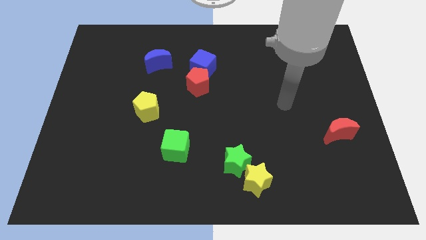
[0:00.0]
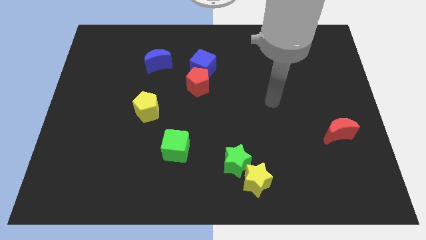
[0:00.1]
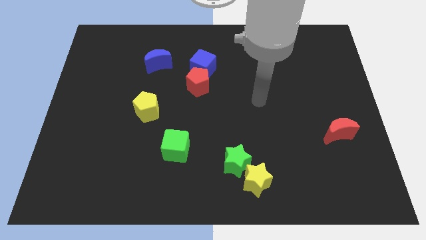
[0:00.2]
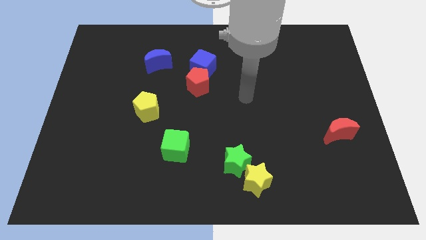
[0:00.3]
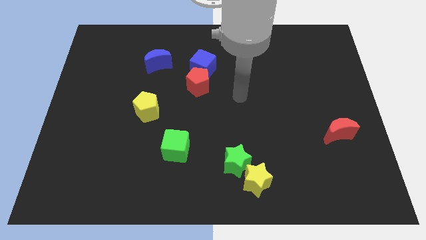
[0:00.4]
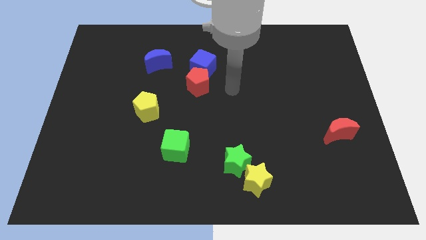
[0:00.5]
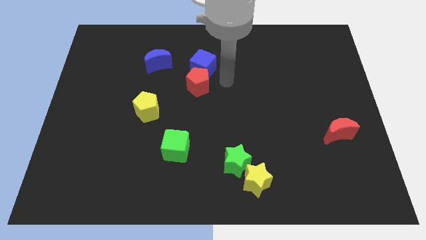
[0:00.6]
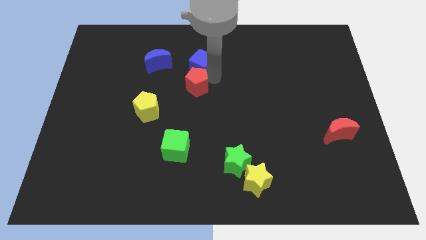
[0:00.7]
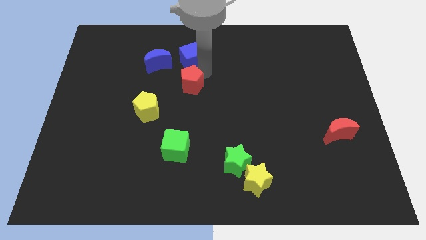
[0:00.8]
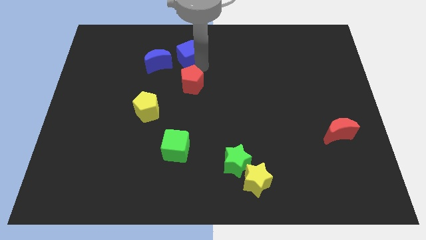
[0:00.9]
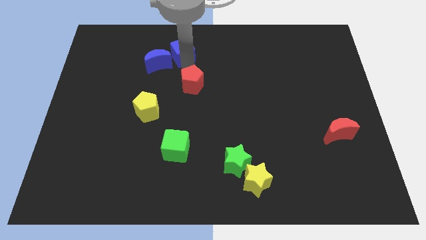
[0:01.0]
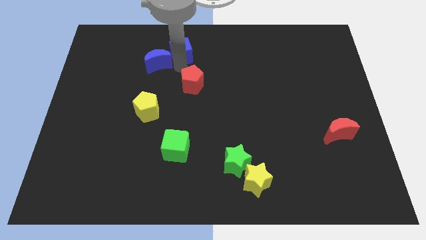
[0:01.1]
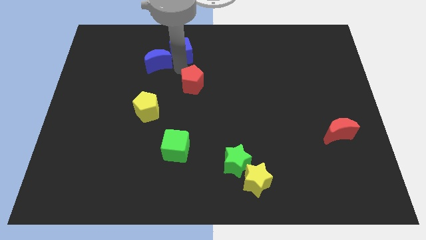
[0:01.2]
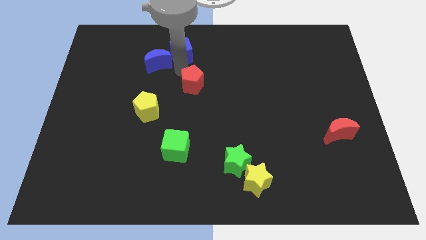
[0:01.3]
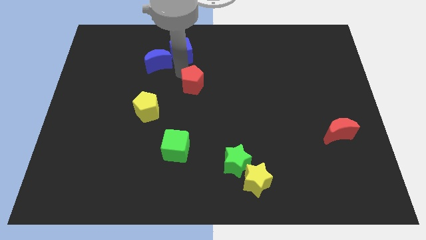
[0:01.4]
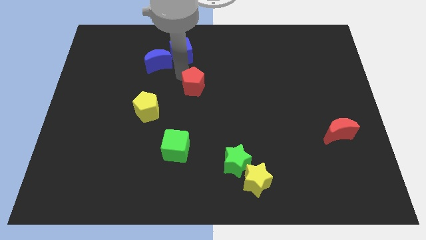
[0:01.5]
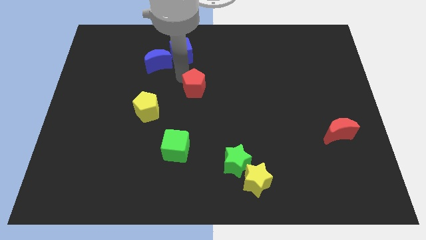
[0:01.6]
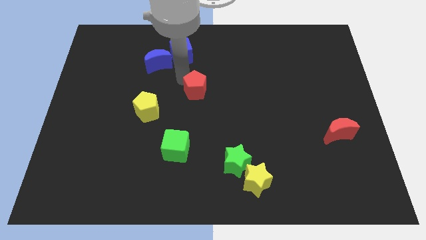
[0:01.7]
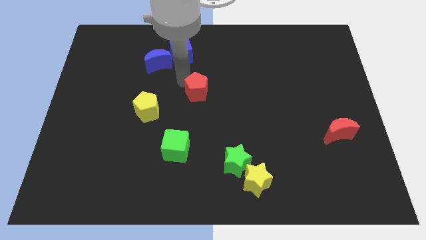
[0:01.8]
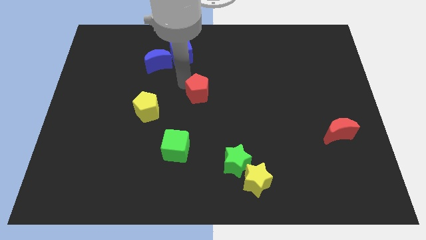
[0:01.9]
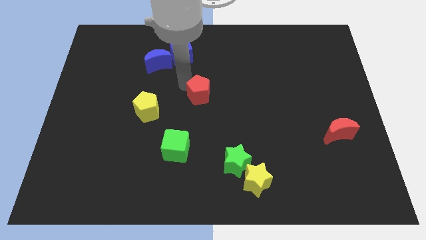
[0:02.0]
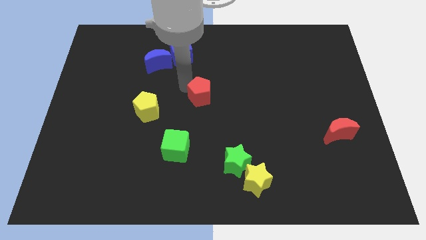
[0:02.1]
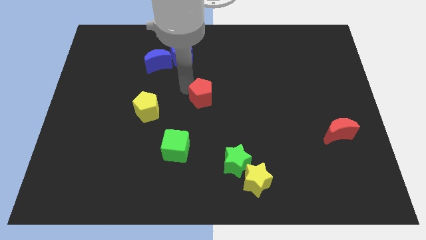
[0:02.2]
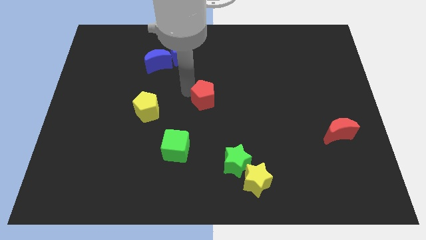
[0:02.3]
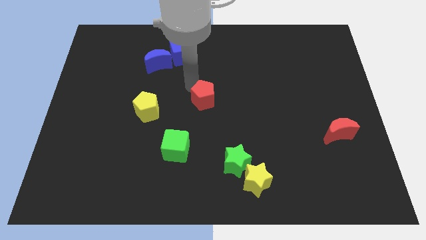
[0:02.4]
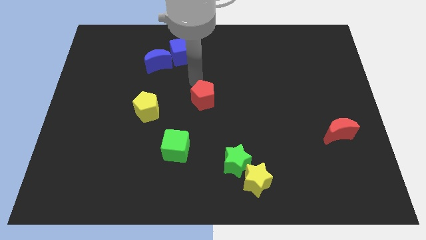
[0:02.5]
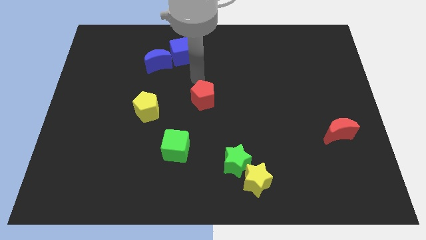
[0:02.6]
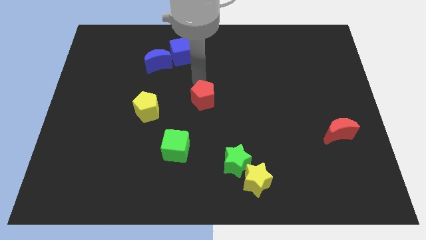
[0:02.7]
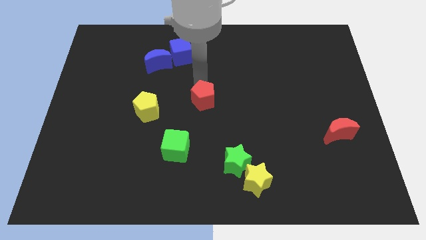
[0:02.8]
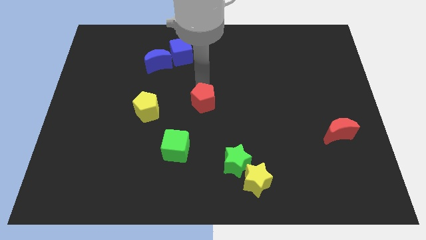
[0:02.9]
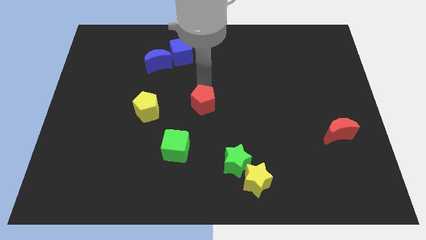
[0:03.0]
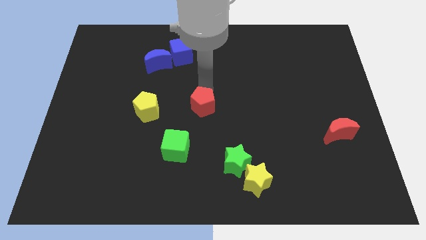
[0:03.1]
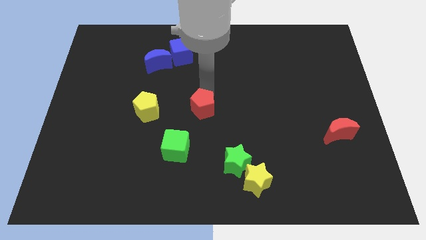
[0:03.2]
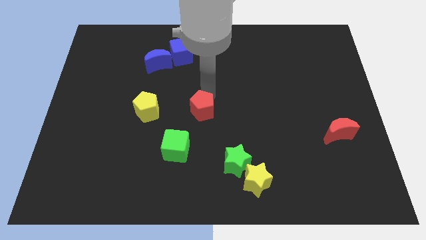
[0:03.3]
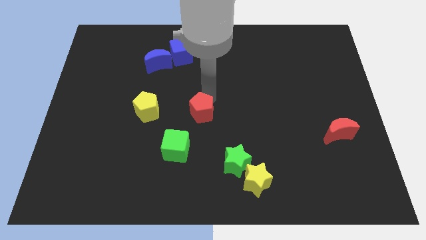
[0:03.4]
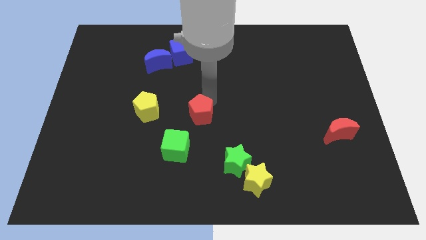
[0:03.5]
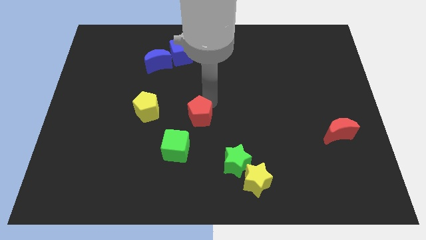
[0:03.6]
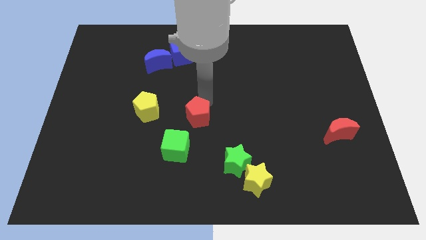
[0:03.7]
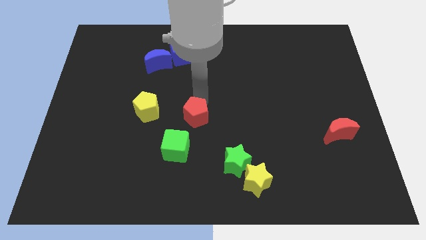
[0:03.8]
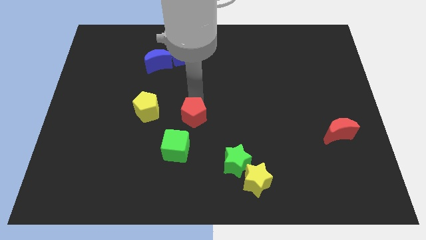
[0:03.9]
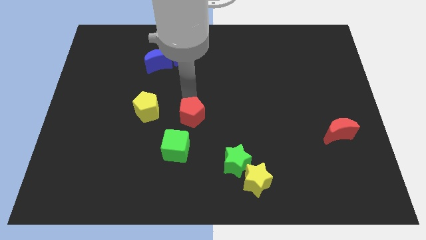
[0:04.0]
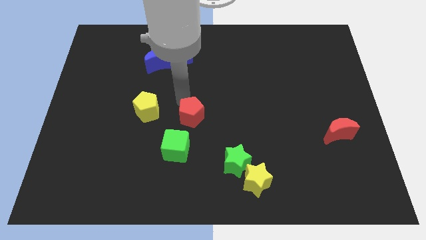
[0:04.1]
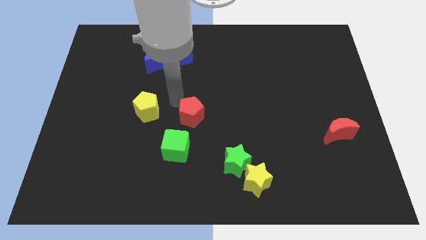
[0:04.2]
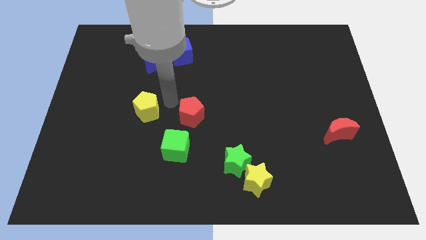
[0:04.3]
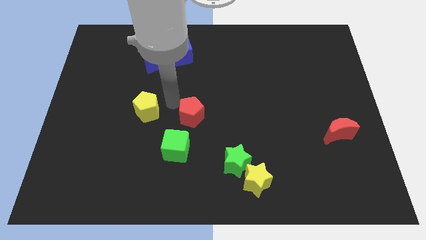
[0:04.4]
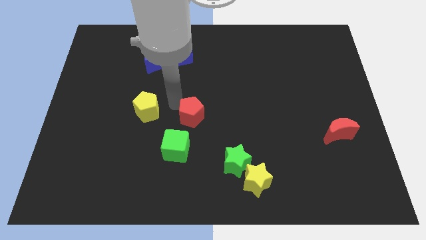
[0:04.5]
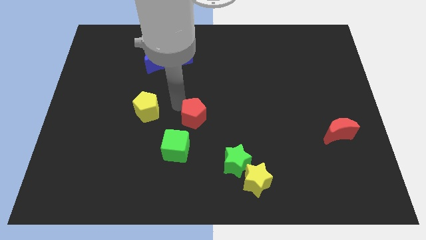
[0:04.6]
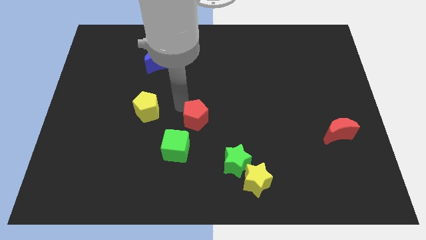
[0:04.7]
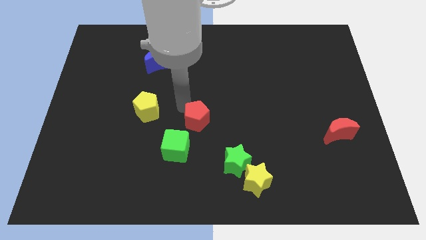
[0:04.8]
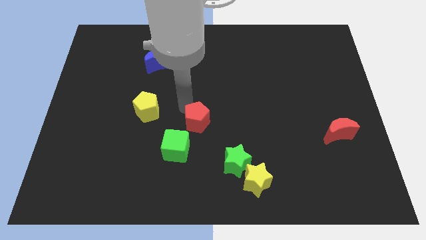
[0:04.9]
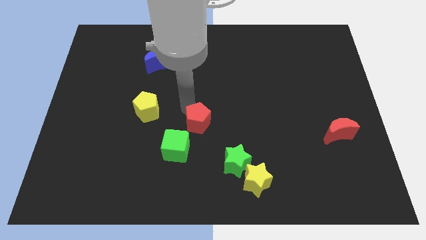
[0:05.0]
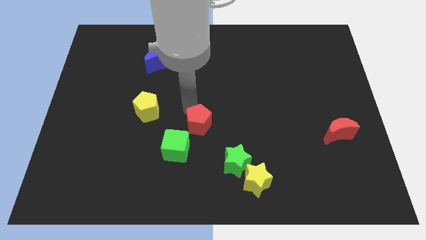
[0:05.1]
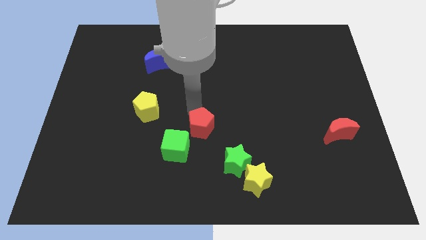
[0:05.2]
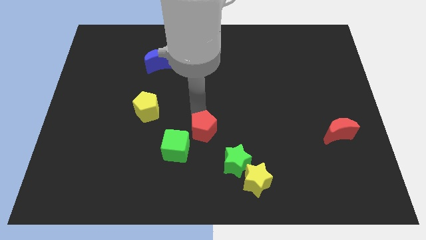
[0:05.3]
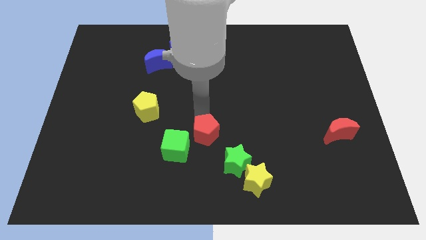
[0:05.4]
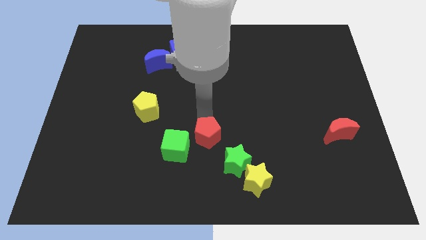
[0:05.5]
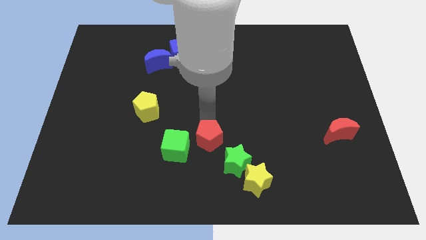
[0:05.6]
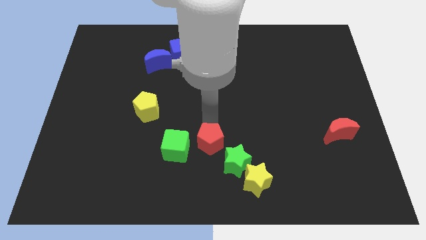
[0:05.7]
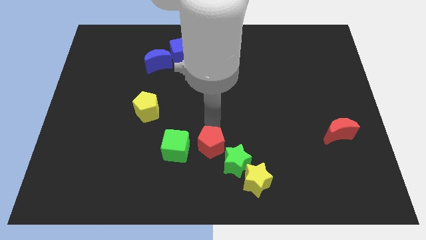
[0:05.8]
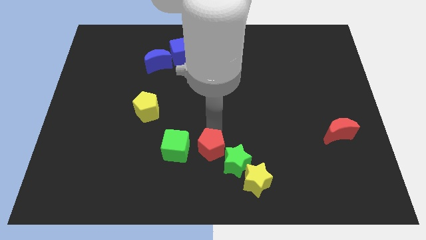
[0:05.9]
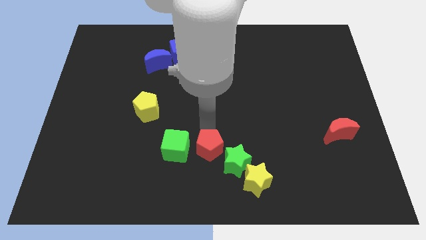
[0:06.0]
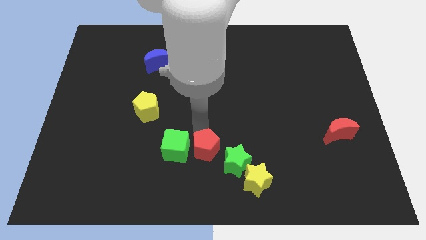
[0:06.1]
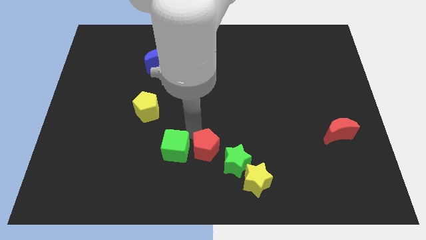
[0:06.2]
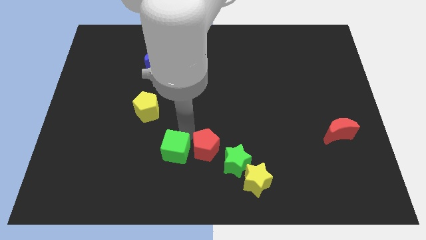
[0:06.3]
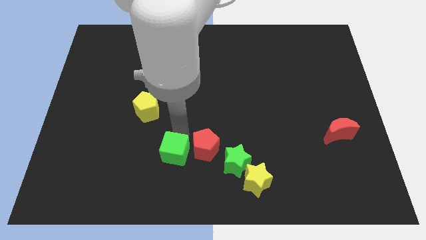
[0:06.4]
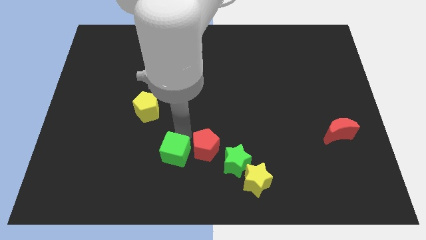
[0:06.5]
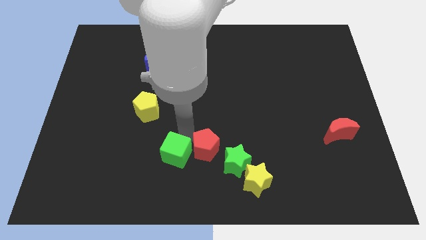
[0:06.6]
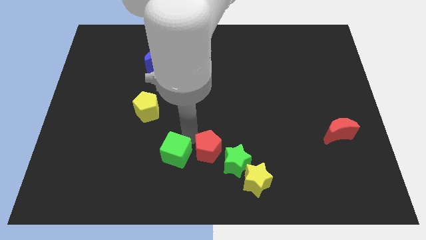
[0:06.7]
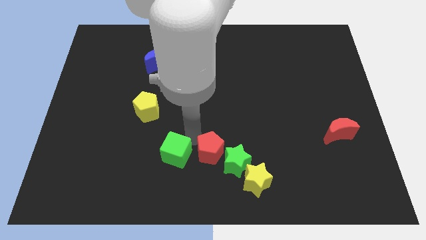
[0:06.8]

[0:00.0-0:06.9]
push the red pentagon close to the green star

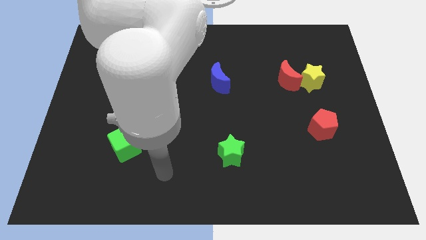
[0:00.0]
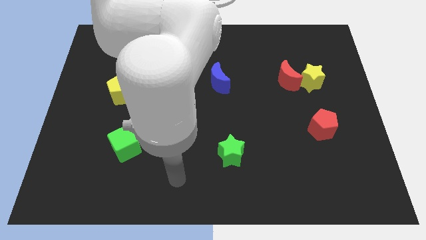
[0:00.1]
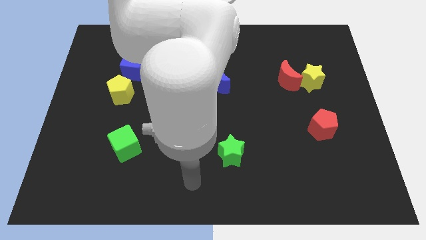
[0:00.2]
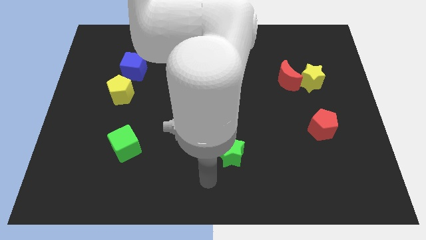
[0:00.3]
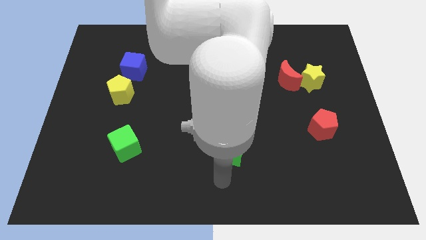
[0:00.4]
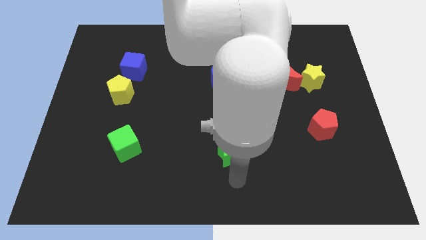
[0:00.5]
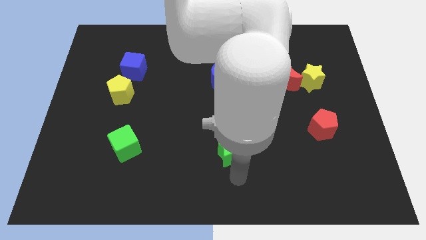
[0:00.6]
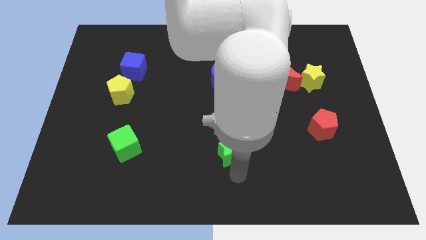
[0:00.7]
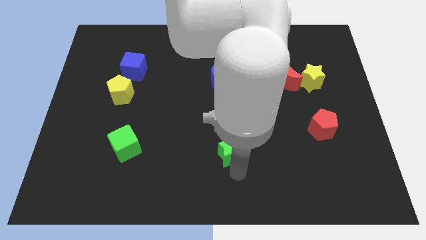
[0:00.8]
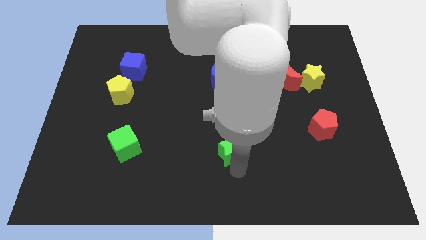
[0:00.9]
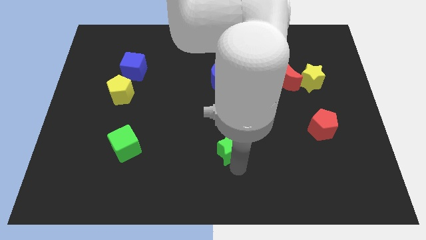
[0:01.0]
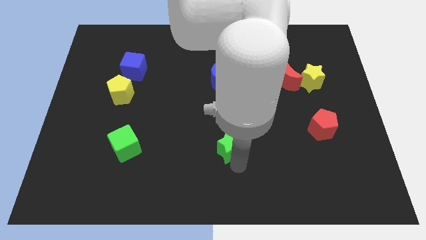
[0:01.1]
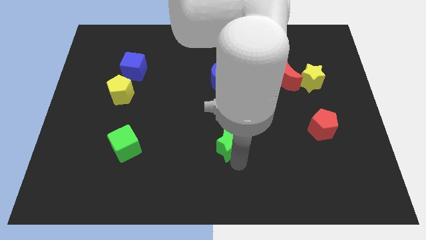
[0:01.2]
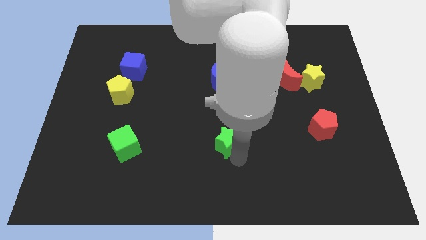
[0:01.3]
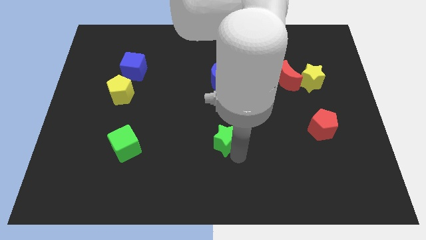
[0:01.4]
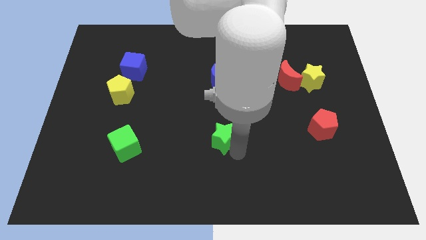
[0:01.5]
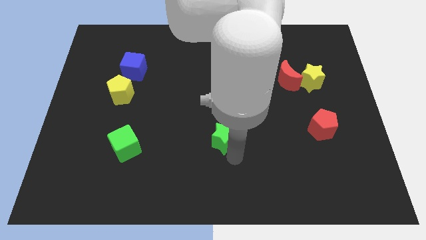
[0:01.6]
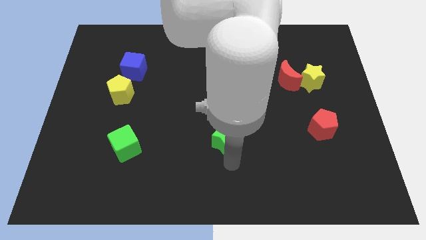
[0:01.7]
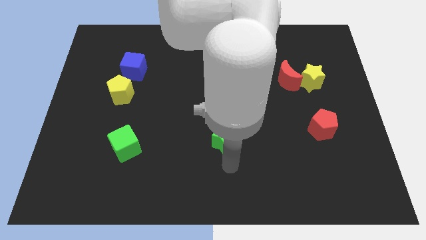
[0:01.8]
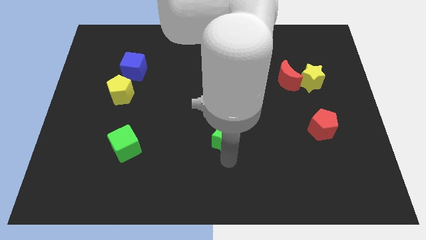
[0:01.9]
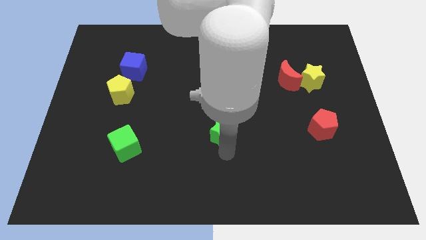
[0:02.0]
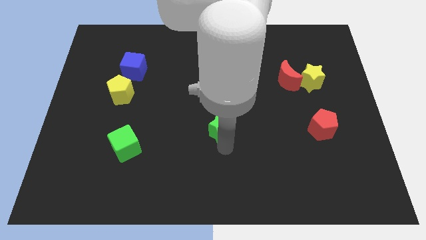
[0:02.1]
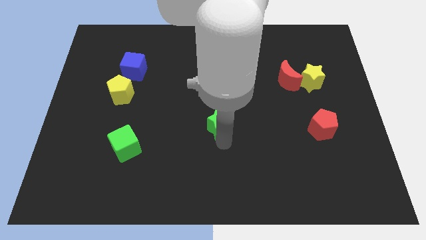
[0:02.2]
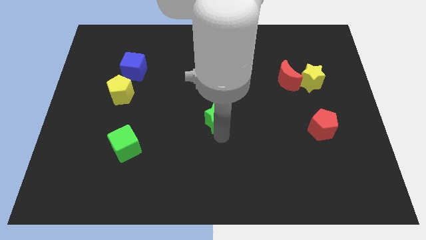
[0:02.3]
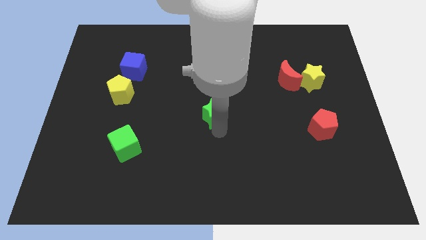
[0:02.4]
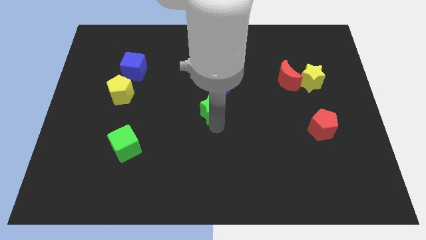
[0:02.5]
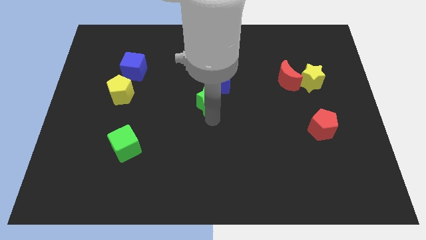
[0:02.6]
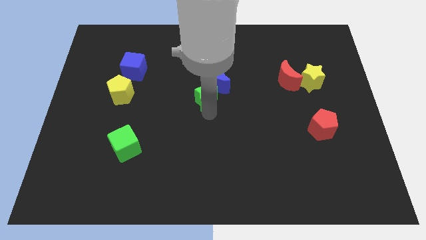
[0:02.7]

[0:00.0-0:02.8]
move the green star towards the blue moon
